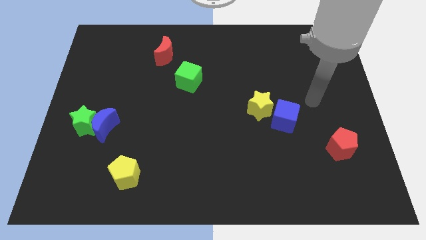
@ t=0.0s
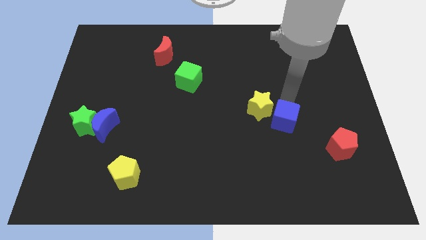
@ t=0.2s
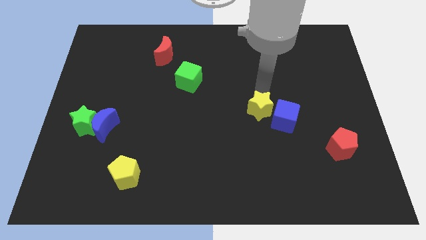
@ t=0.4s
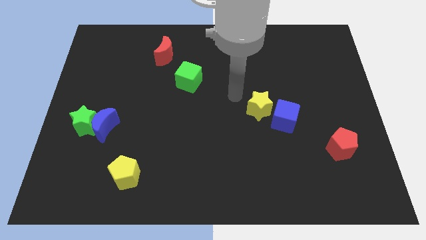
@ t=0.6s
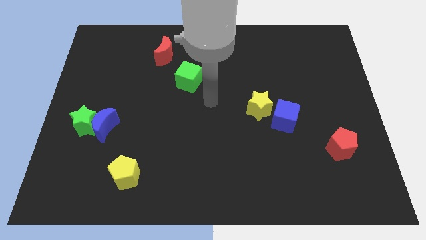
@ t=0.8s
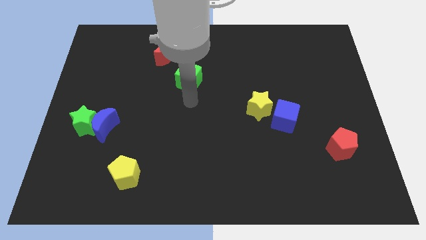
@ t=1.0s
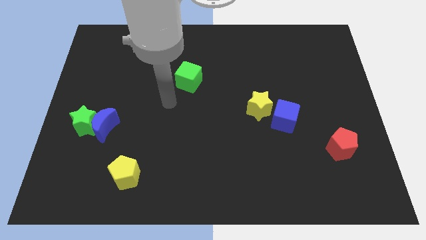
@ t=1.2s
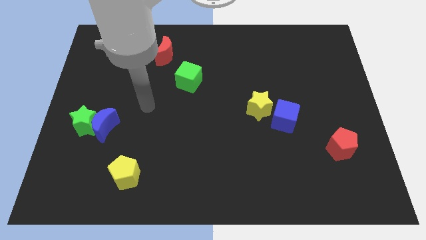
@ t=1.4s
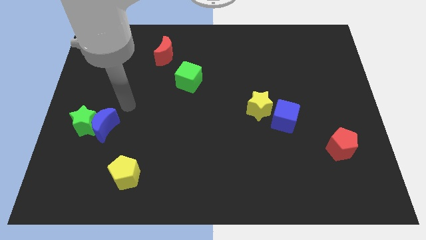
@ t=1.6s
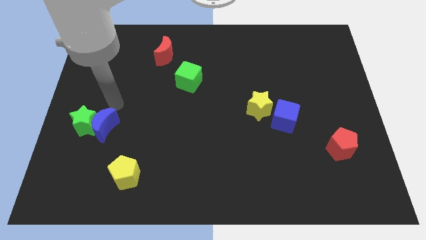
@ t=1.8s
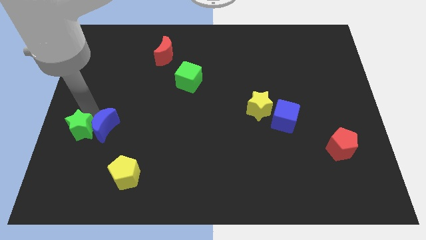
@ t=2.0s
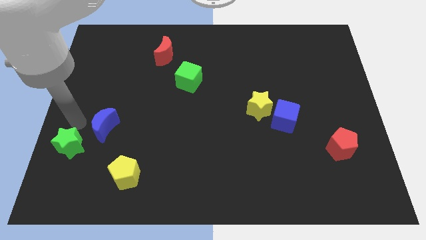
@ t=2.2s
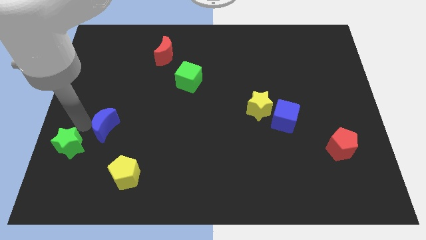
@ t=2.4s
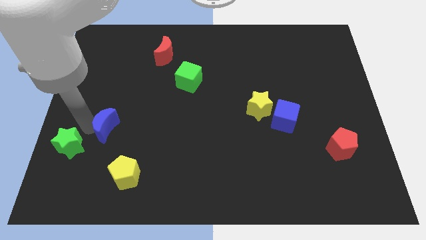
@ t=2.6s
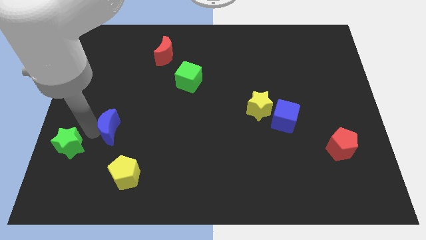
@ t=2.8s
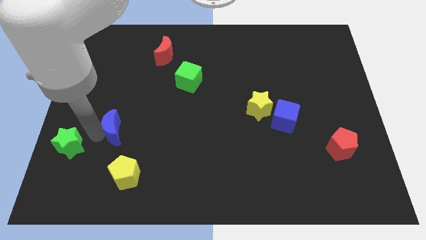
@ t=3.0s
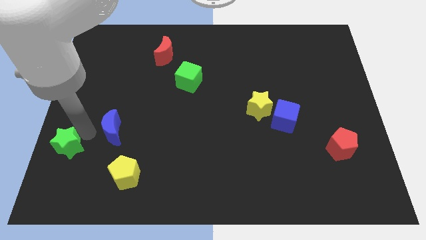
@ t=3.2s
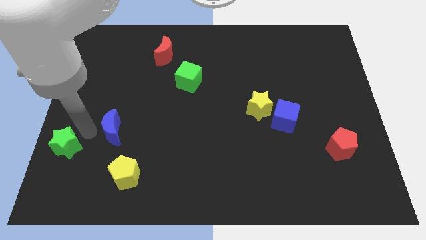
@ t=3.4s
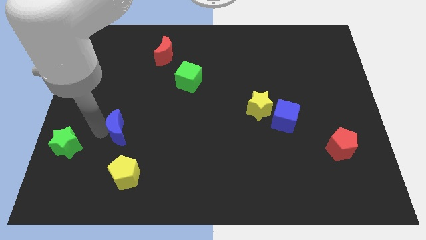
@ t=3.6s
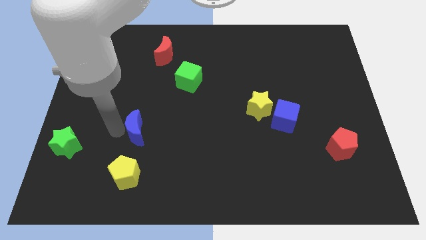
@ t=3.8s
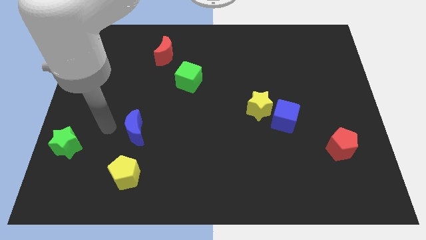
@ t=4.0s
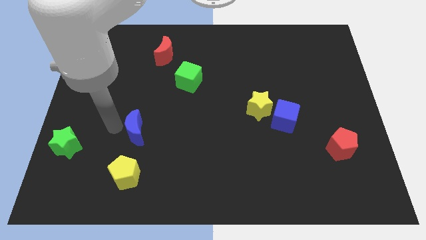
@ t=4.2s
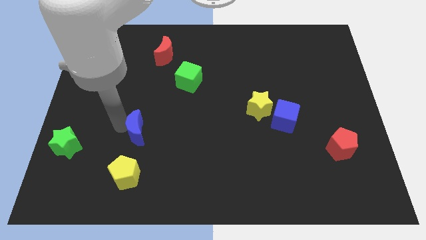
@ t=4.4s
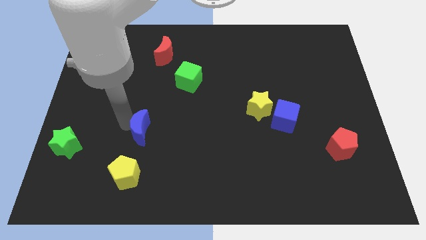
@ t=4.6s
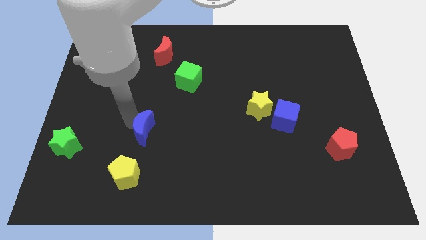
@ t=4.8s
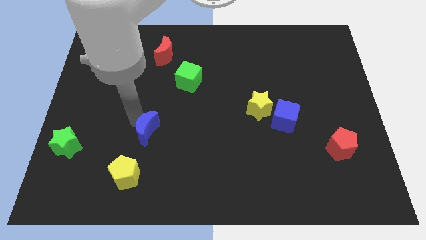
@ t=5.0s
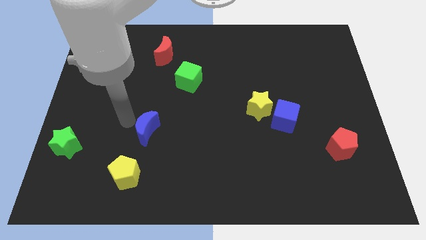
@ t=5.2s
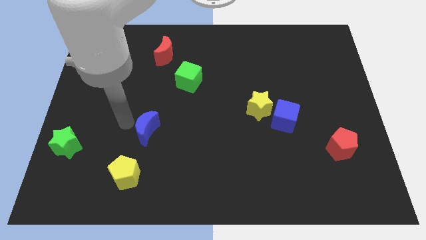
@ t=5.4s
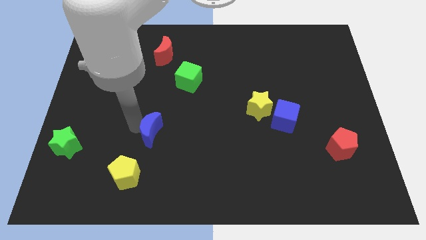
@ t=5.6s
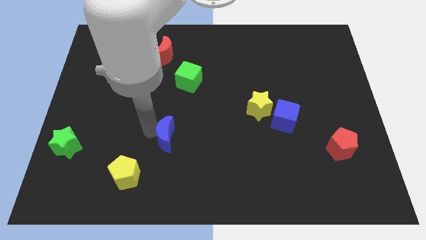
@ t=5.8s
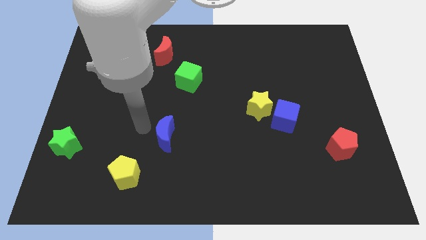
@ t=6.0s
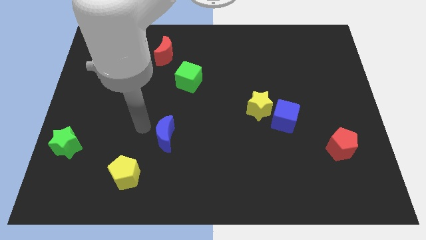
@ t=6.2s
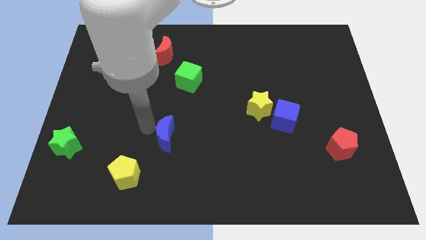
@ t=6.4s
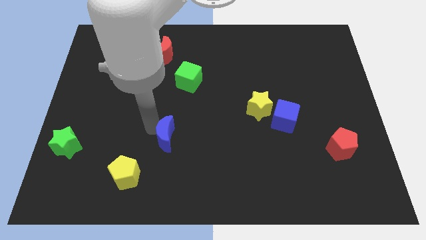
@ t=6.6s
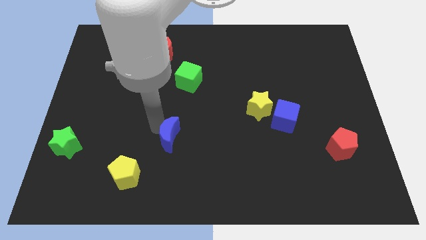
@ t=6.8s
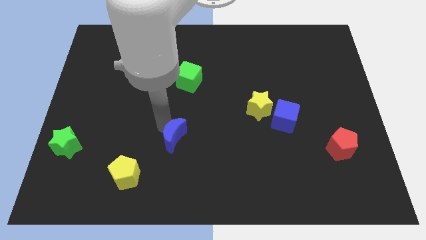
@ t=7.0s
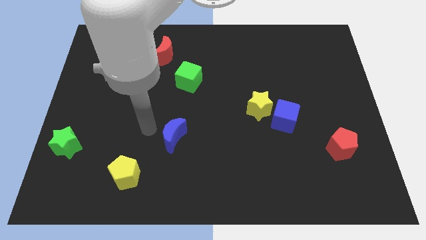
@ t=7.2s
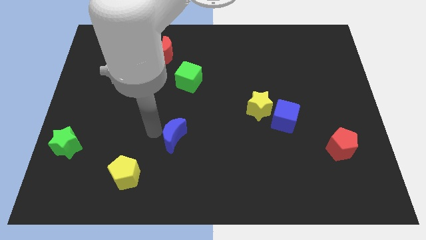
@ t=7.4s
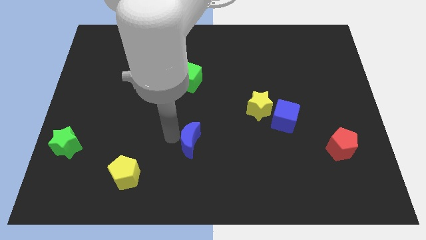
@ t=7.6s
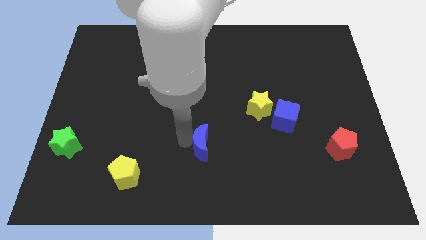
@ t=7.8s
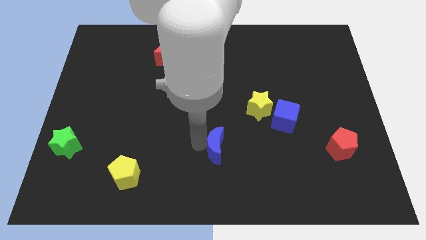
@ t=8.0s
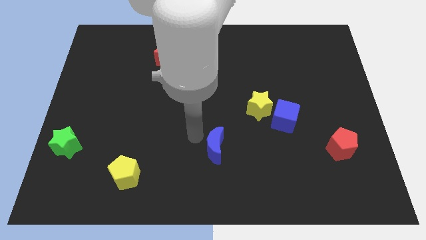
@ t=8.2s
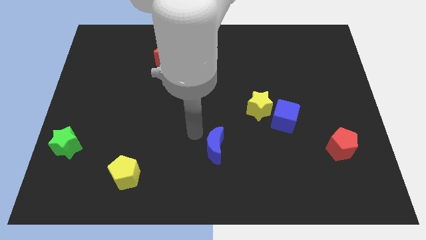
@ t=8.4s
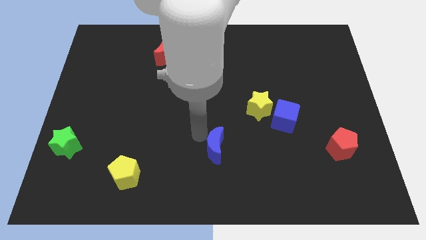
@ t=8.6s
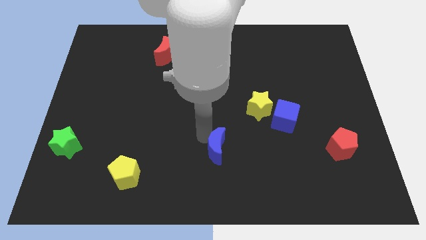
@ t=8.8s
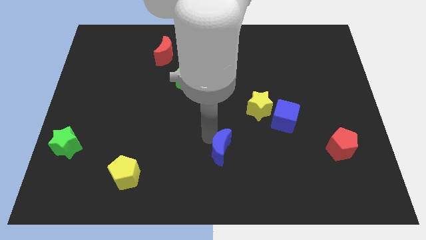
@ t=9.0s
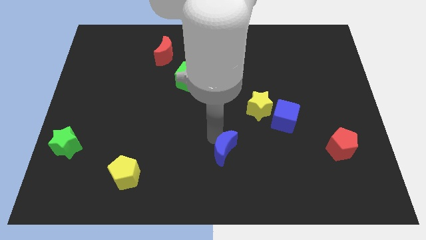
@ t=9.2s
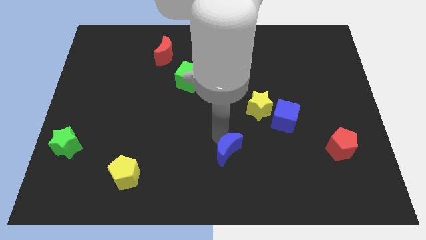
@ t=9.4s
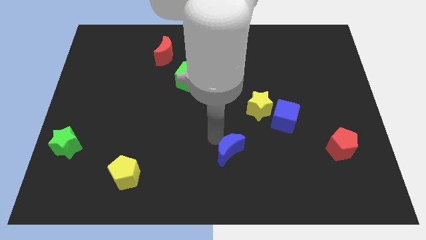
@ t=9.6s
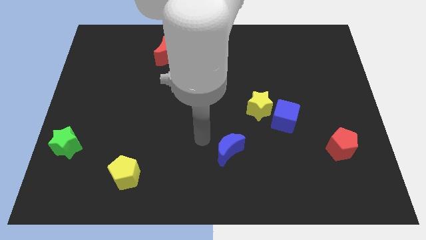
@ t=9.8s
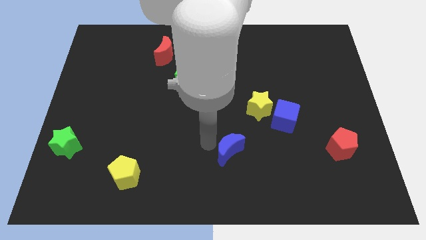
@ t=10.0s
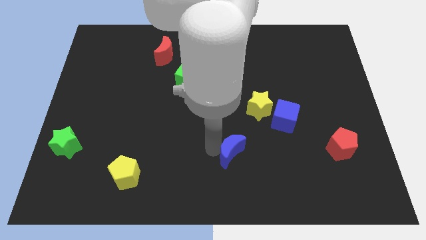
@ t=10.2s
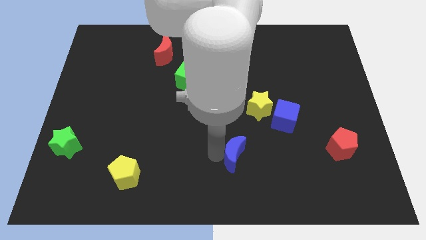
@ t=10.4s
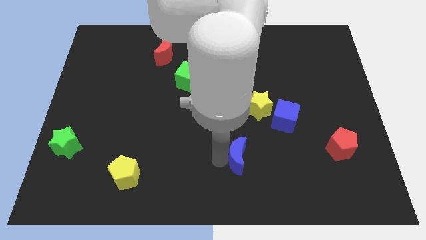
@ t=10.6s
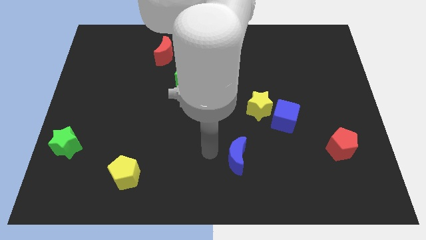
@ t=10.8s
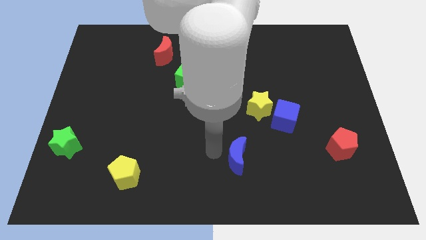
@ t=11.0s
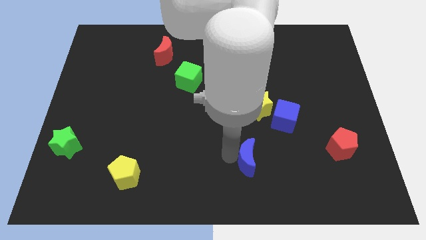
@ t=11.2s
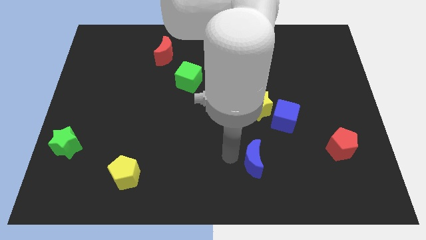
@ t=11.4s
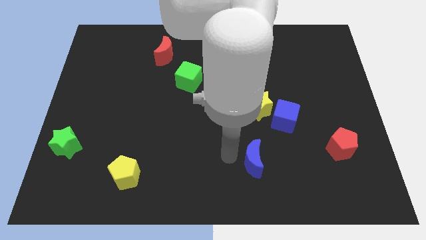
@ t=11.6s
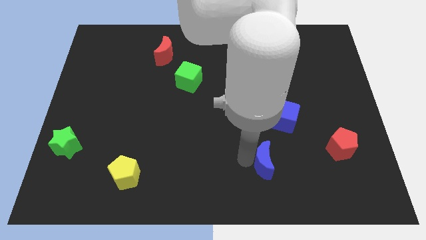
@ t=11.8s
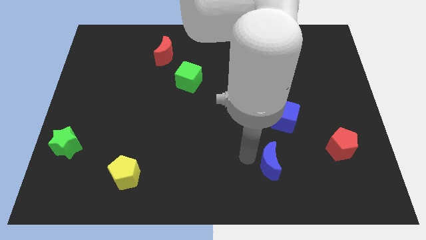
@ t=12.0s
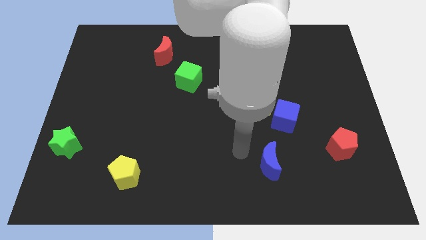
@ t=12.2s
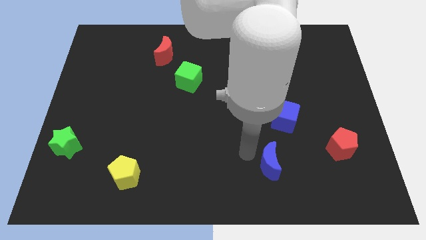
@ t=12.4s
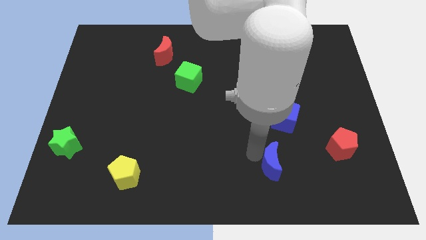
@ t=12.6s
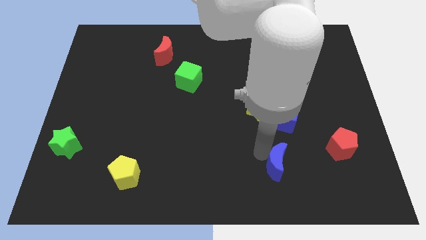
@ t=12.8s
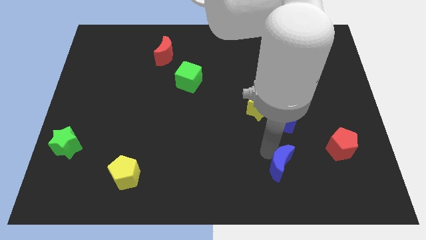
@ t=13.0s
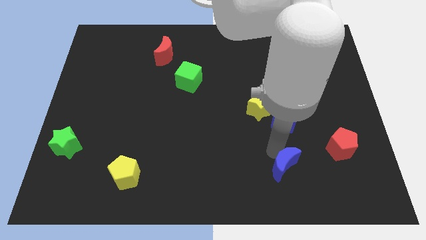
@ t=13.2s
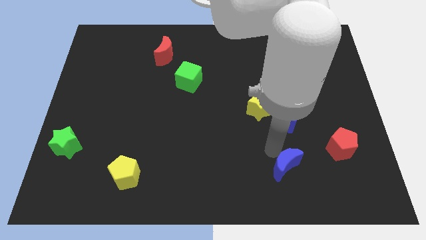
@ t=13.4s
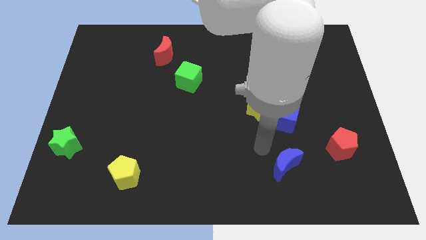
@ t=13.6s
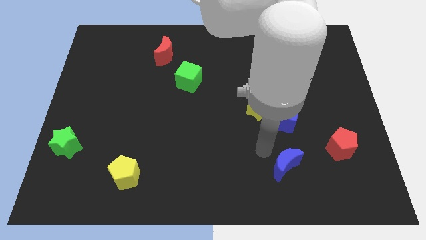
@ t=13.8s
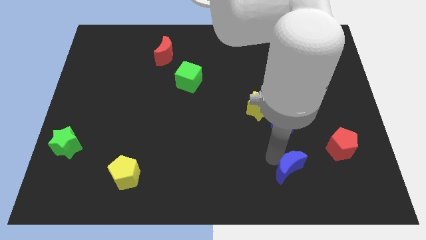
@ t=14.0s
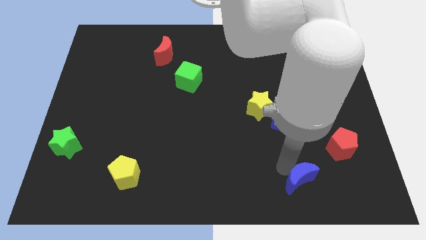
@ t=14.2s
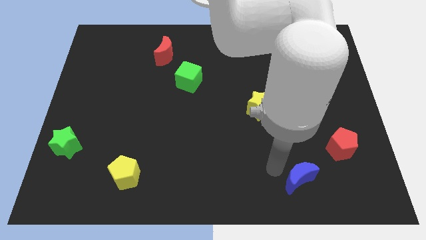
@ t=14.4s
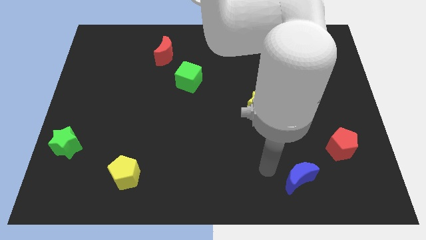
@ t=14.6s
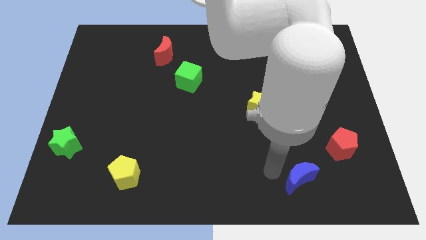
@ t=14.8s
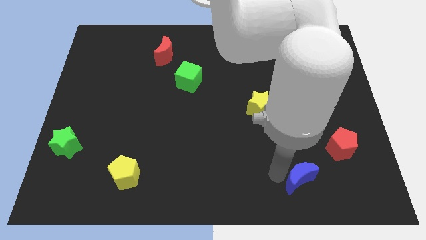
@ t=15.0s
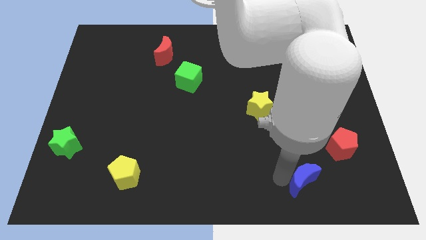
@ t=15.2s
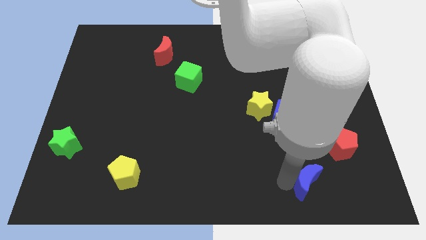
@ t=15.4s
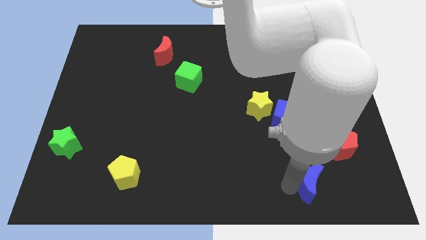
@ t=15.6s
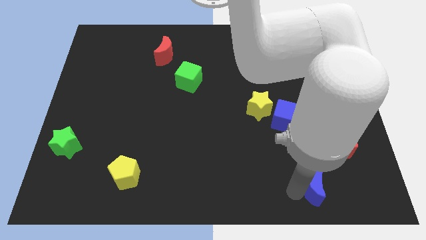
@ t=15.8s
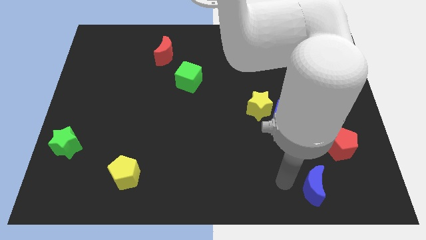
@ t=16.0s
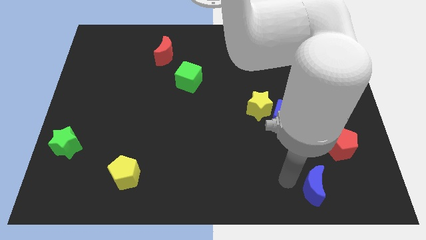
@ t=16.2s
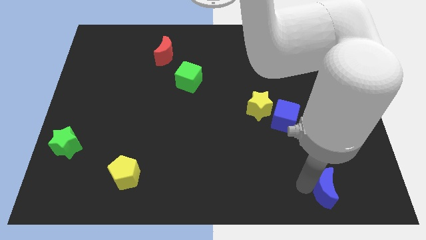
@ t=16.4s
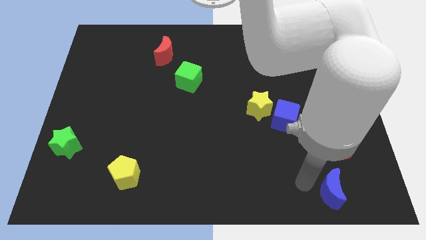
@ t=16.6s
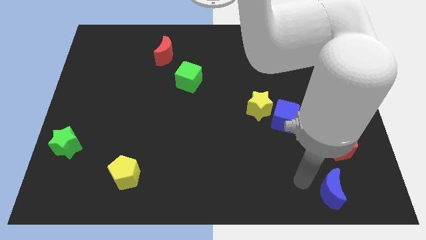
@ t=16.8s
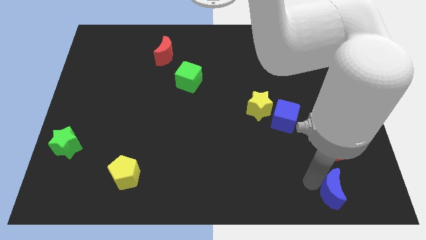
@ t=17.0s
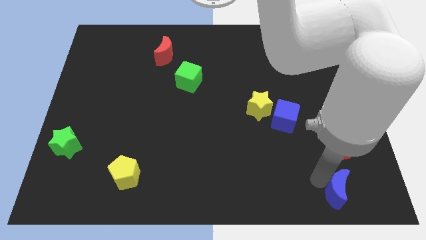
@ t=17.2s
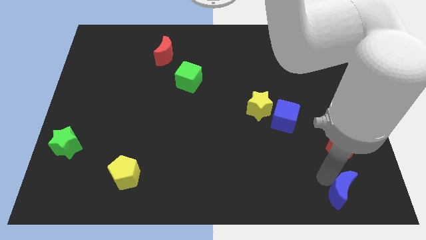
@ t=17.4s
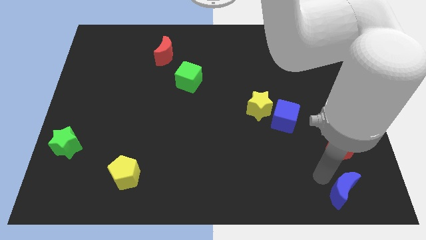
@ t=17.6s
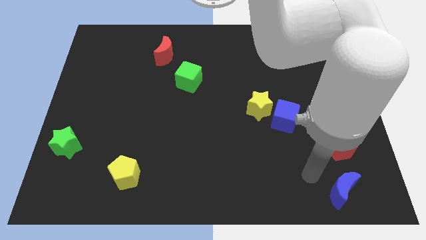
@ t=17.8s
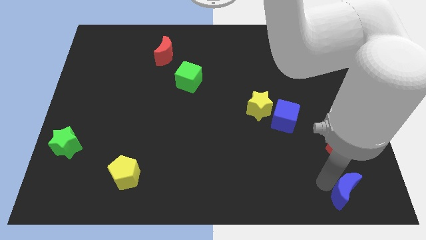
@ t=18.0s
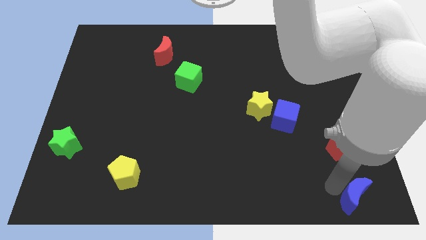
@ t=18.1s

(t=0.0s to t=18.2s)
move the blue moon to the bottom right of the board
